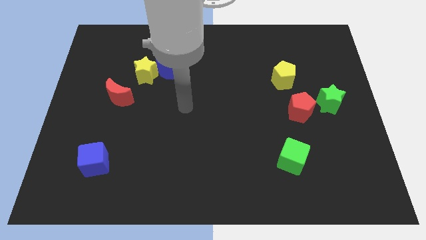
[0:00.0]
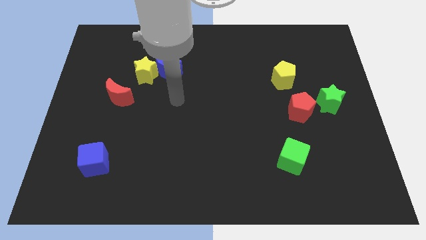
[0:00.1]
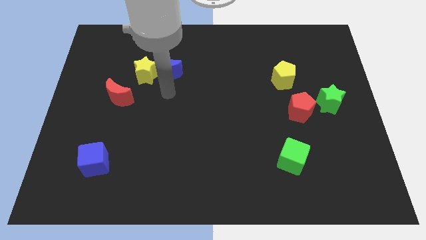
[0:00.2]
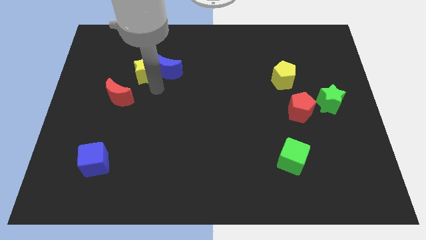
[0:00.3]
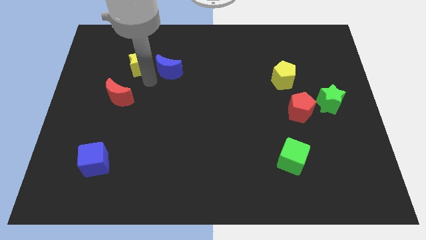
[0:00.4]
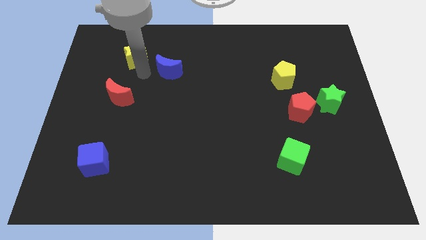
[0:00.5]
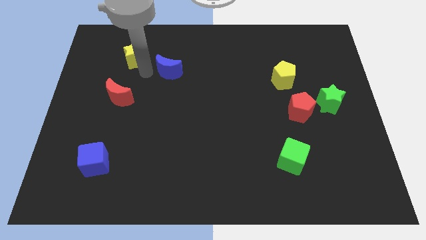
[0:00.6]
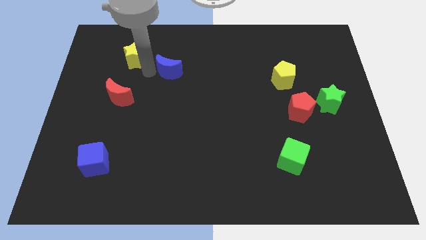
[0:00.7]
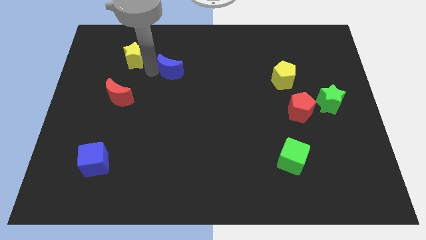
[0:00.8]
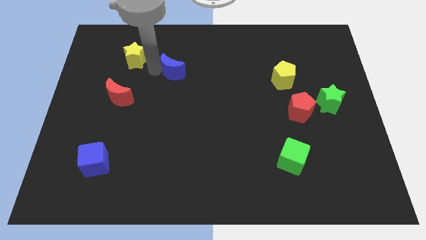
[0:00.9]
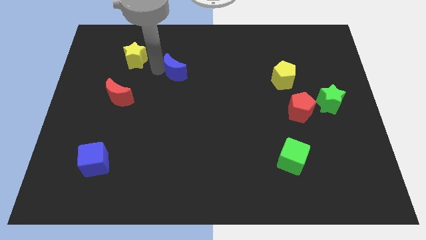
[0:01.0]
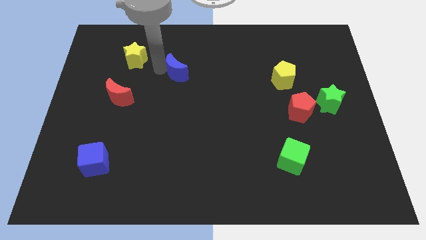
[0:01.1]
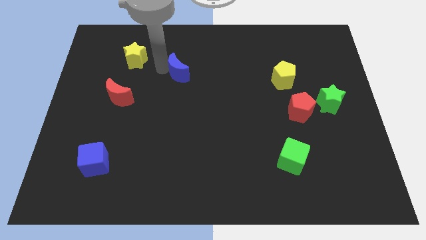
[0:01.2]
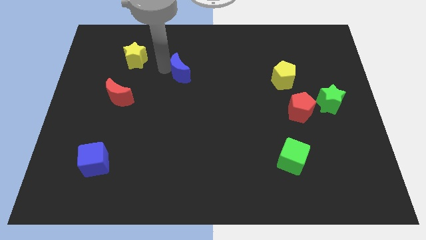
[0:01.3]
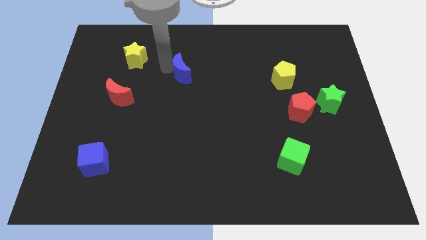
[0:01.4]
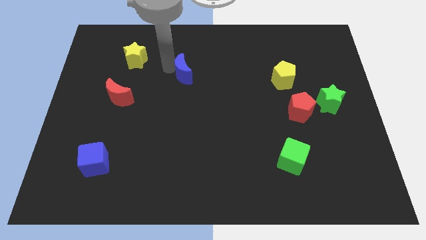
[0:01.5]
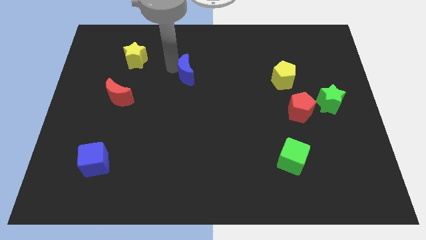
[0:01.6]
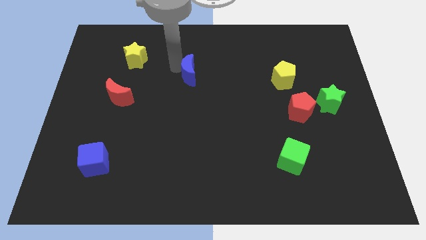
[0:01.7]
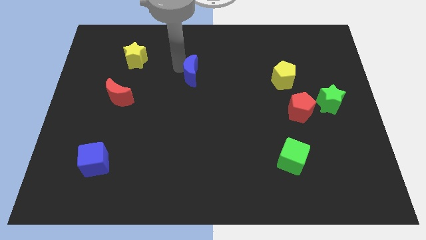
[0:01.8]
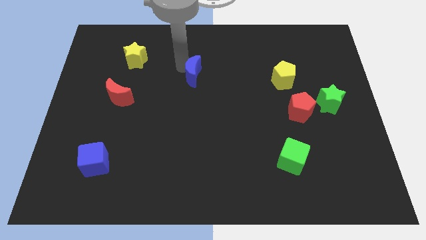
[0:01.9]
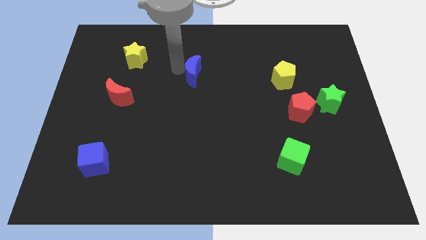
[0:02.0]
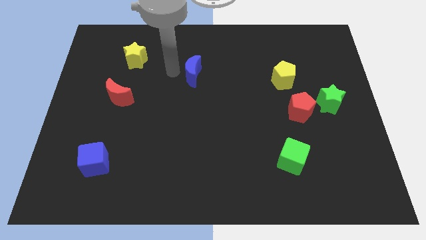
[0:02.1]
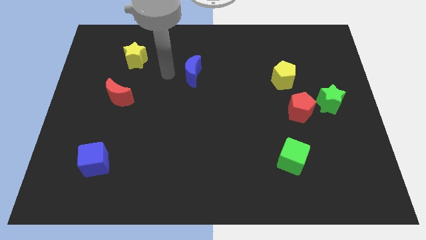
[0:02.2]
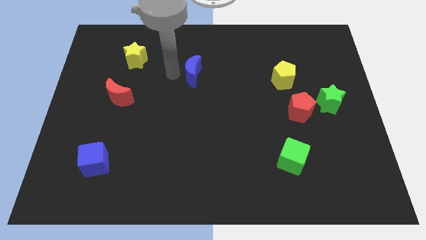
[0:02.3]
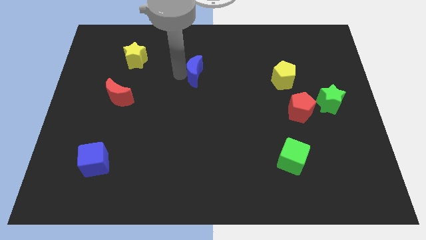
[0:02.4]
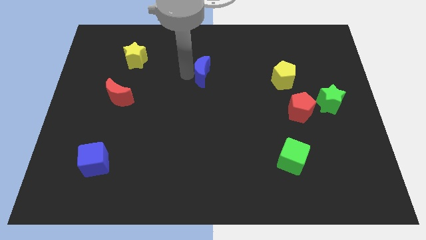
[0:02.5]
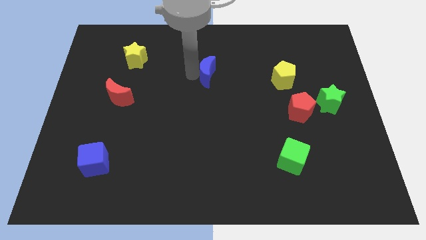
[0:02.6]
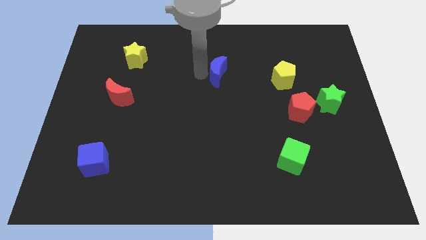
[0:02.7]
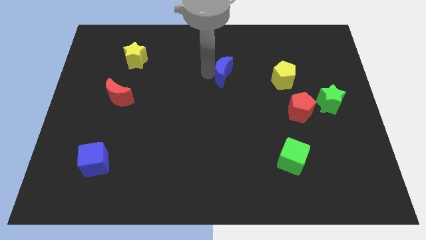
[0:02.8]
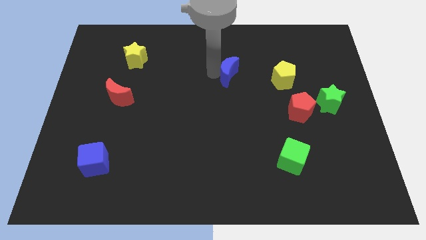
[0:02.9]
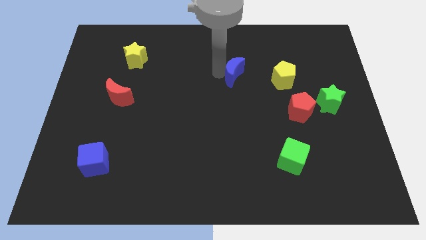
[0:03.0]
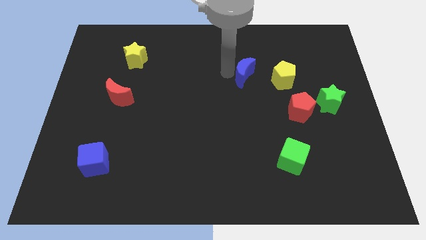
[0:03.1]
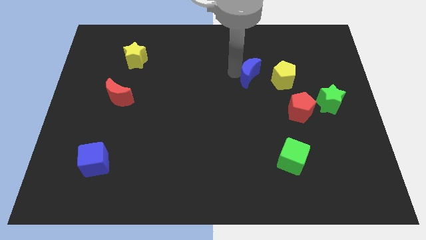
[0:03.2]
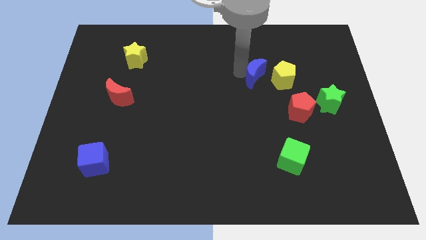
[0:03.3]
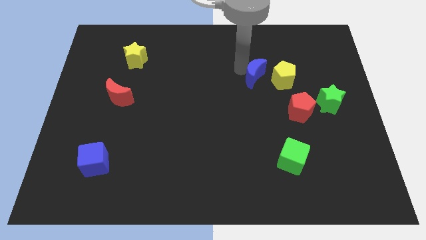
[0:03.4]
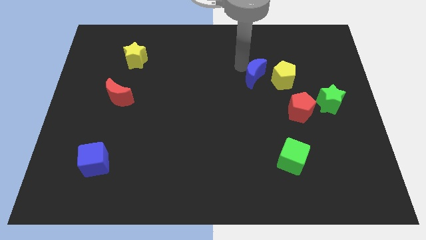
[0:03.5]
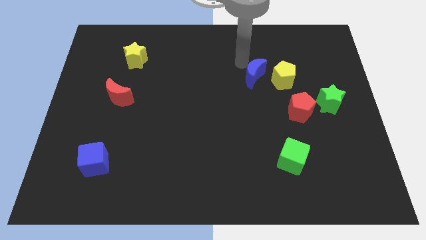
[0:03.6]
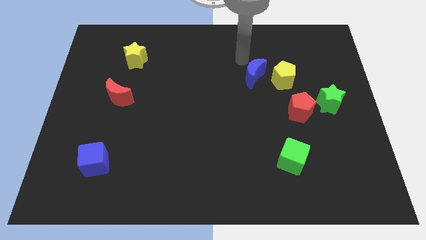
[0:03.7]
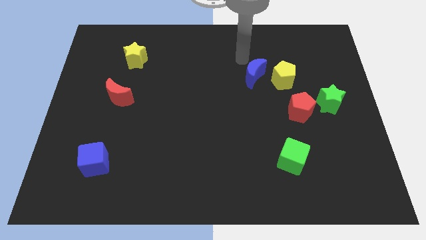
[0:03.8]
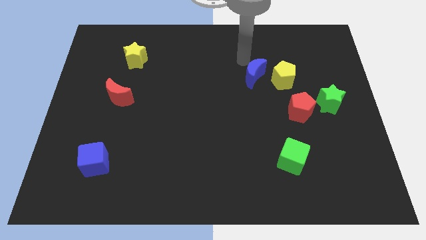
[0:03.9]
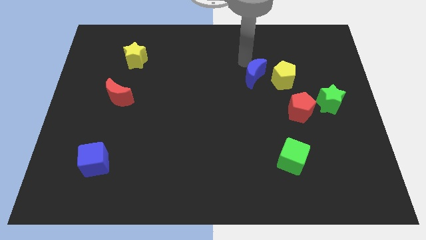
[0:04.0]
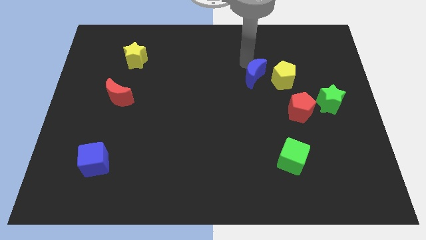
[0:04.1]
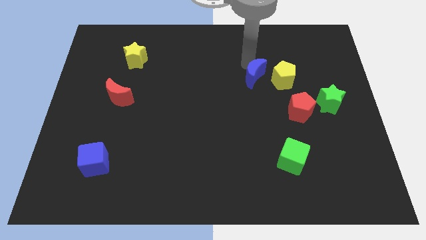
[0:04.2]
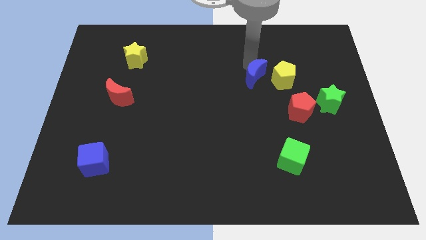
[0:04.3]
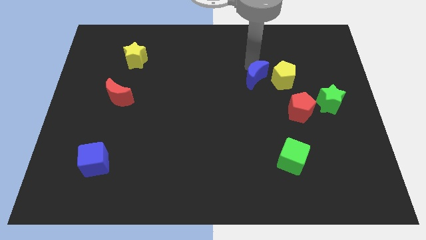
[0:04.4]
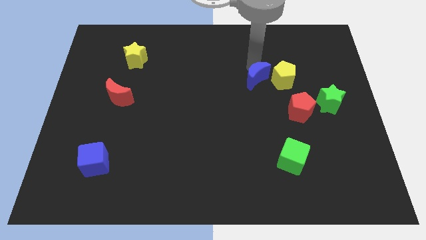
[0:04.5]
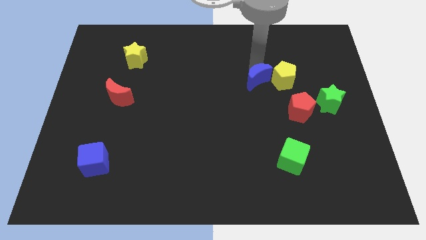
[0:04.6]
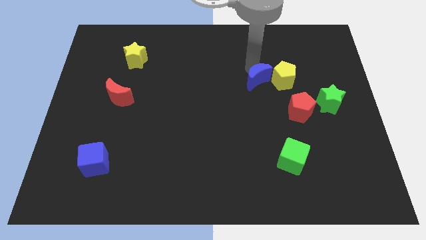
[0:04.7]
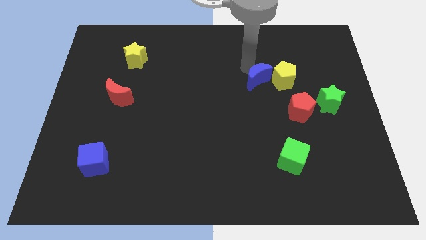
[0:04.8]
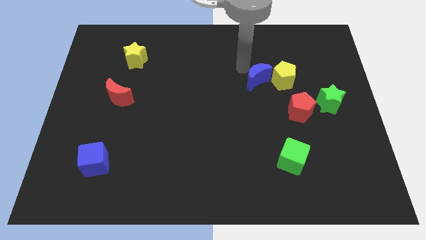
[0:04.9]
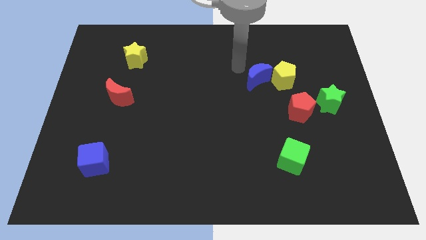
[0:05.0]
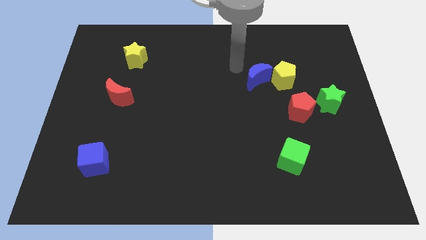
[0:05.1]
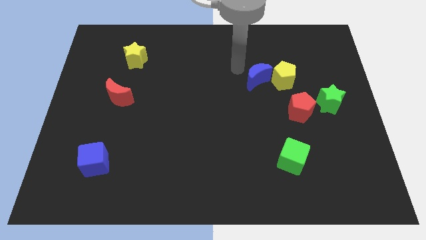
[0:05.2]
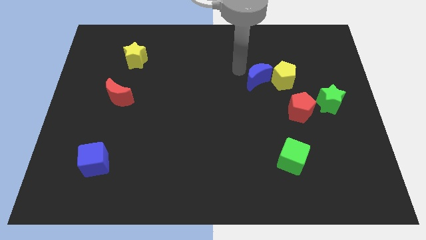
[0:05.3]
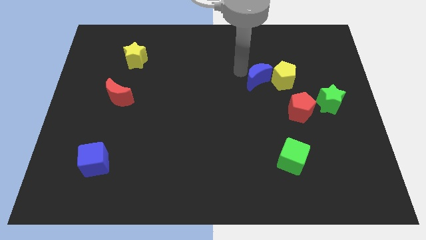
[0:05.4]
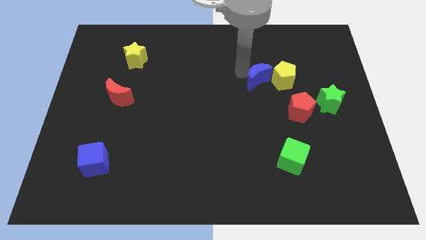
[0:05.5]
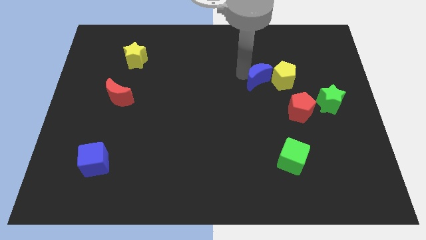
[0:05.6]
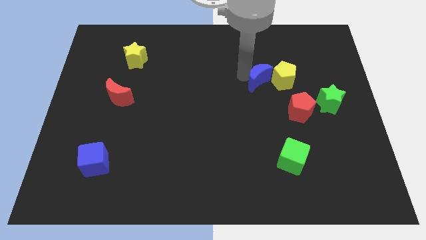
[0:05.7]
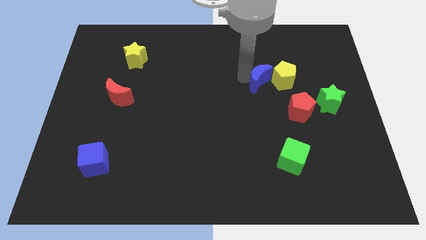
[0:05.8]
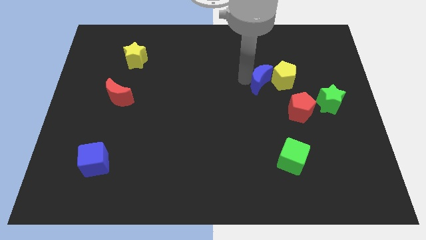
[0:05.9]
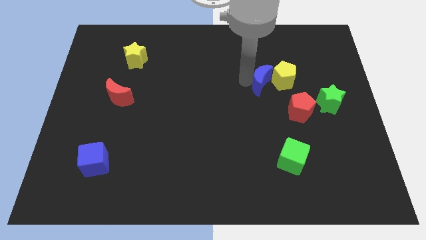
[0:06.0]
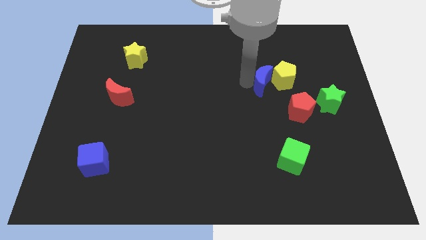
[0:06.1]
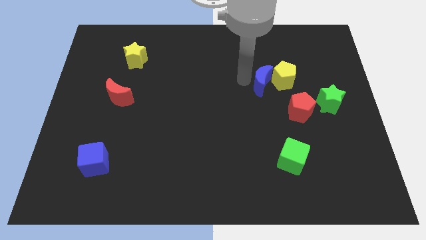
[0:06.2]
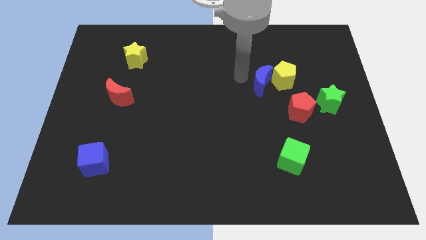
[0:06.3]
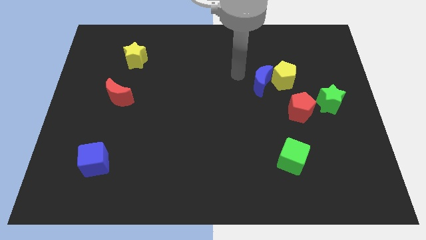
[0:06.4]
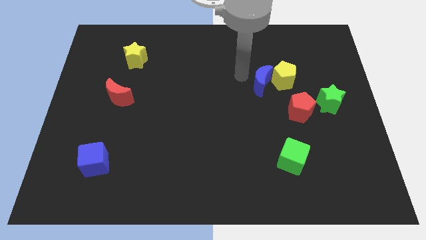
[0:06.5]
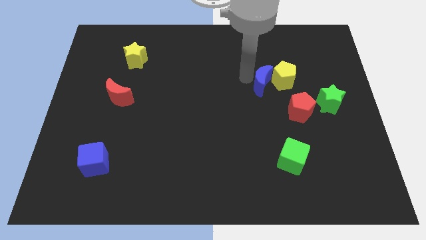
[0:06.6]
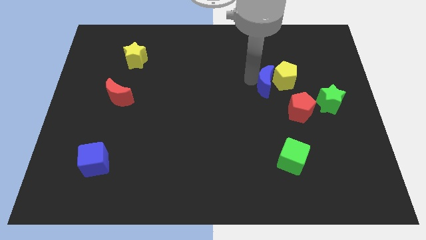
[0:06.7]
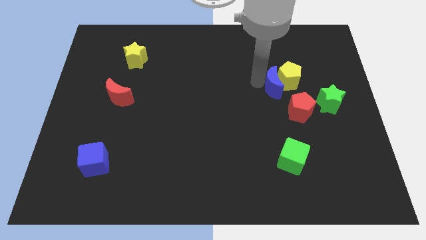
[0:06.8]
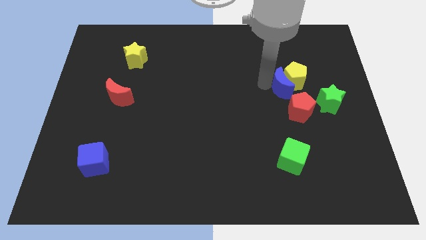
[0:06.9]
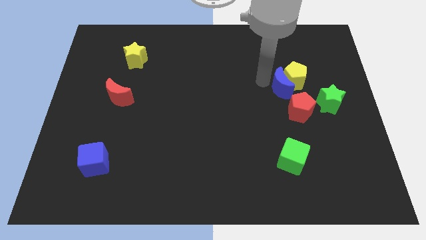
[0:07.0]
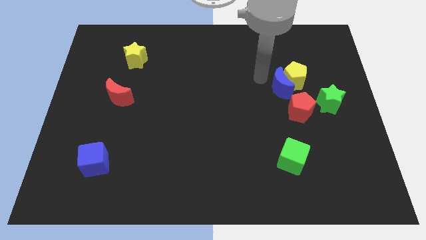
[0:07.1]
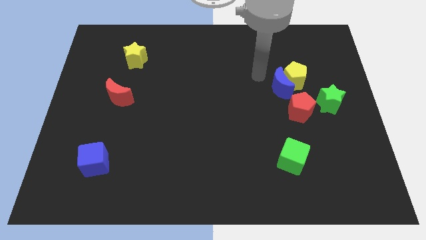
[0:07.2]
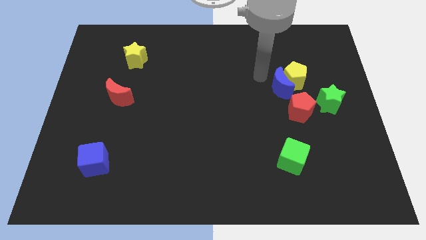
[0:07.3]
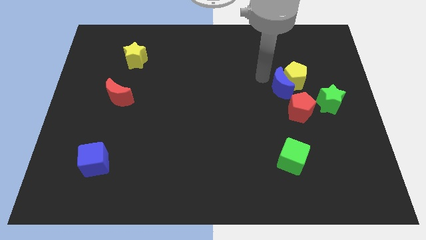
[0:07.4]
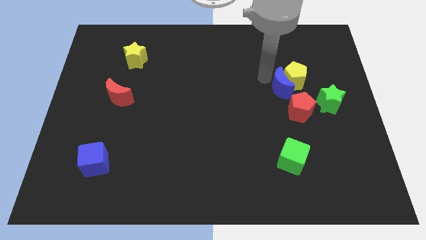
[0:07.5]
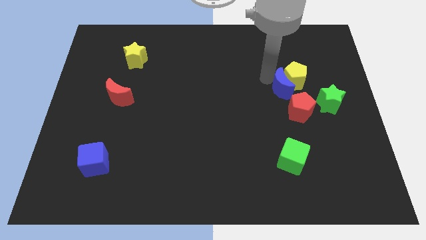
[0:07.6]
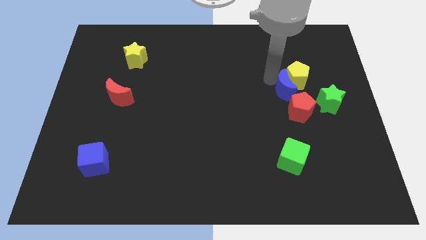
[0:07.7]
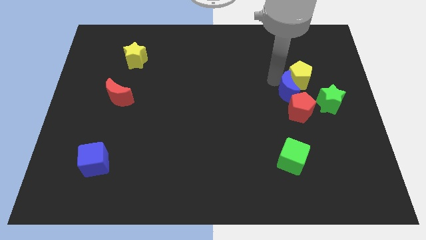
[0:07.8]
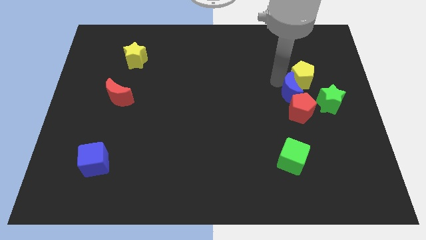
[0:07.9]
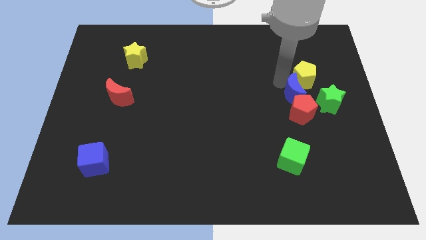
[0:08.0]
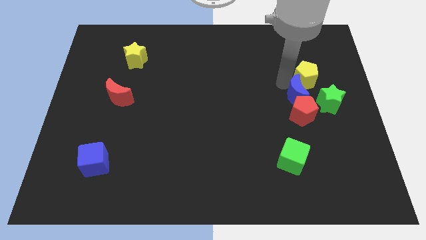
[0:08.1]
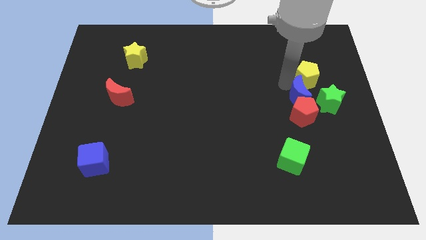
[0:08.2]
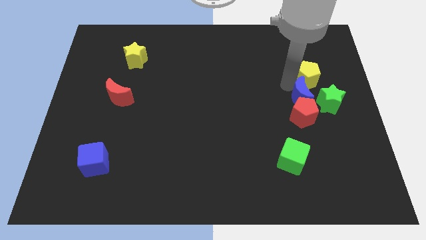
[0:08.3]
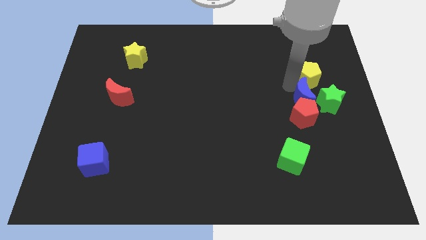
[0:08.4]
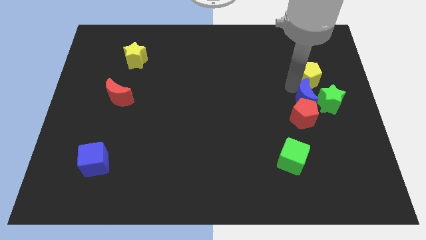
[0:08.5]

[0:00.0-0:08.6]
push the blue moon towards the green star
